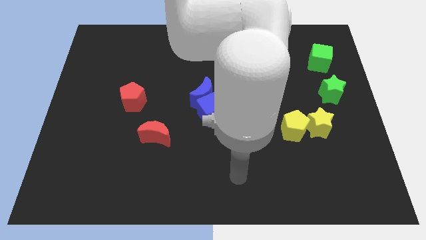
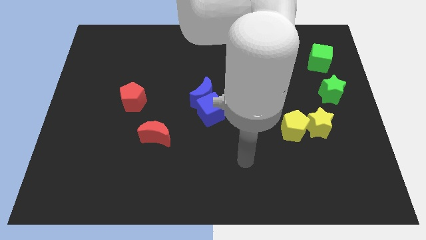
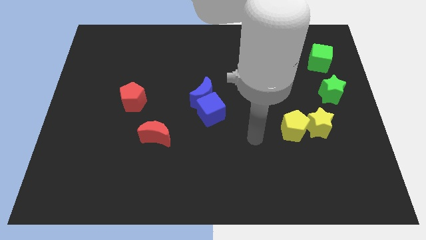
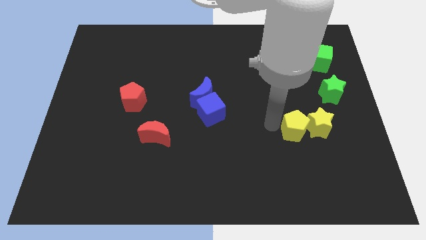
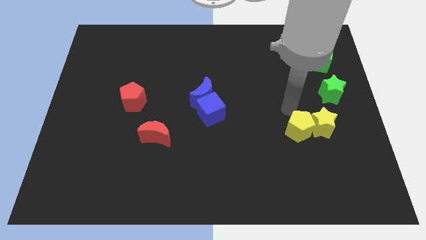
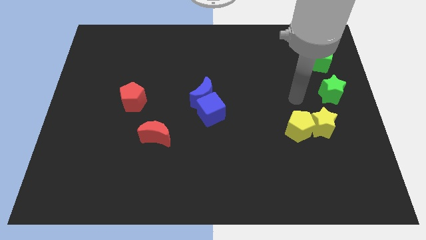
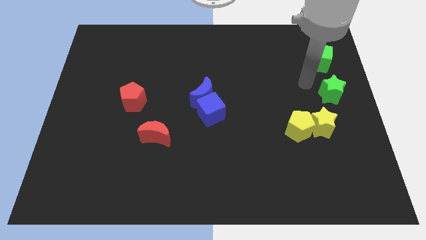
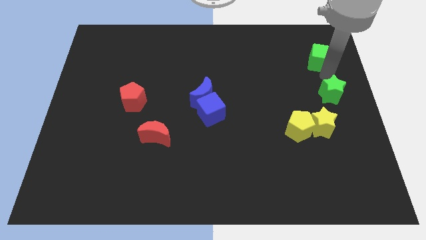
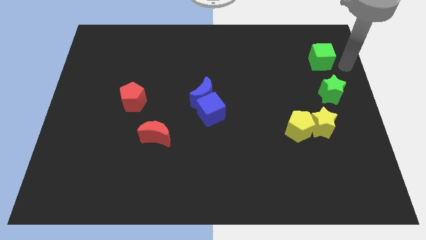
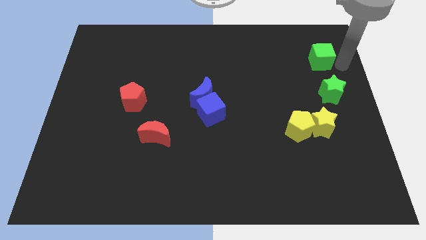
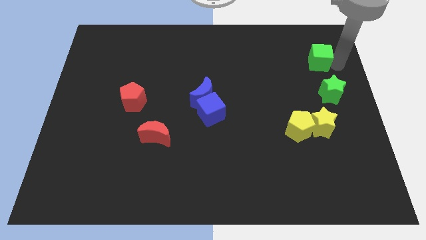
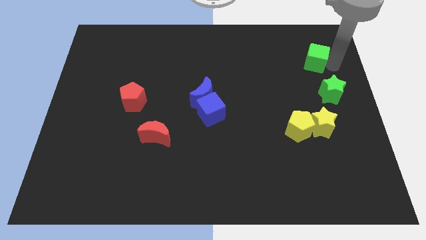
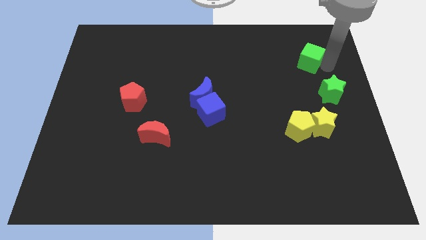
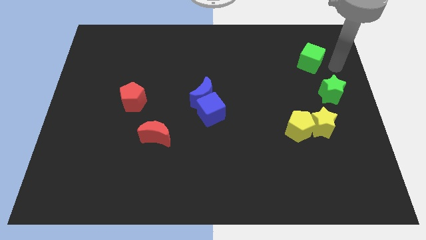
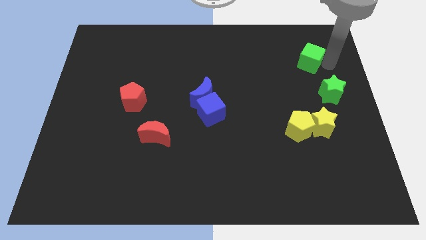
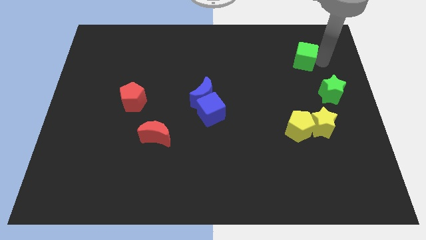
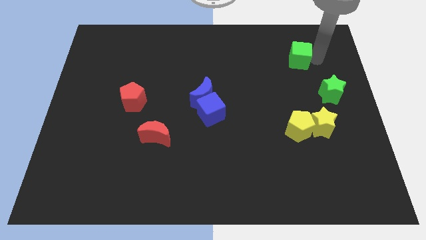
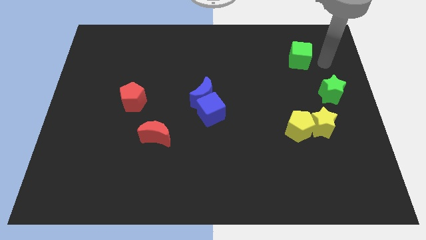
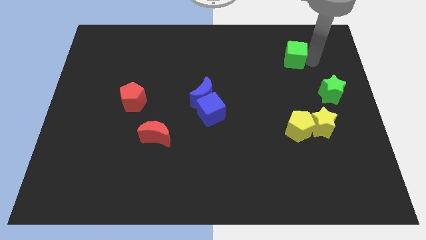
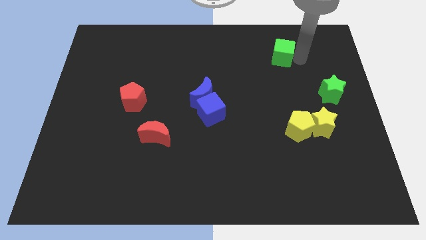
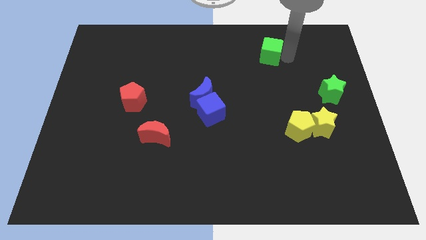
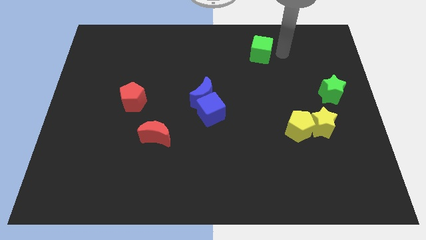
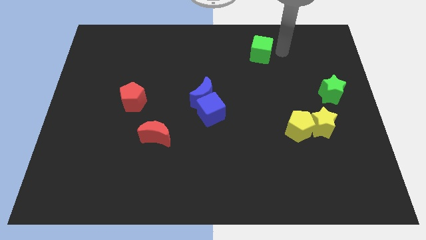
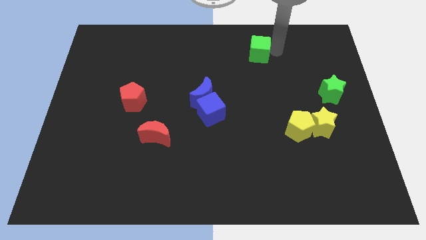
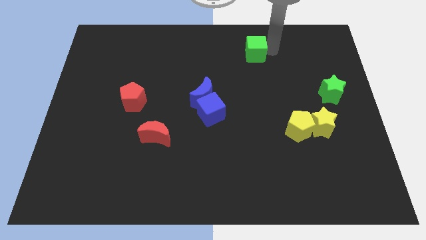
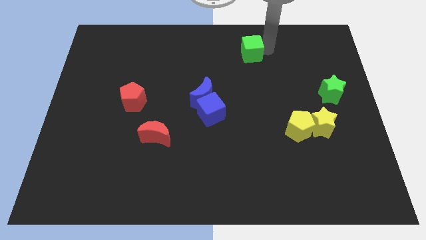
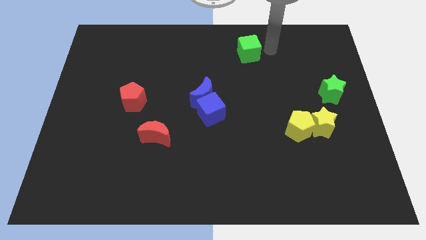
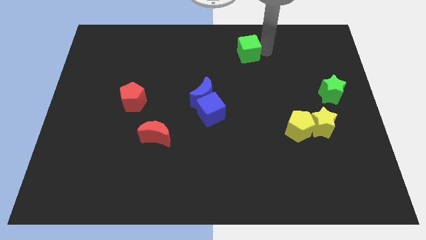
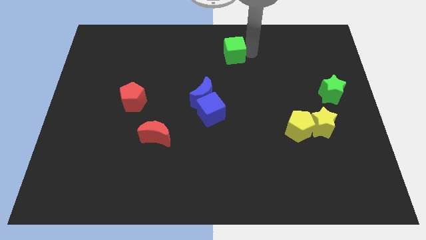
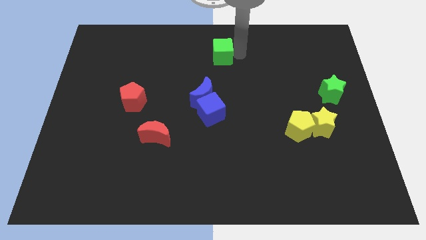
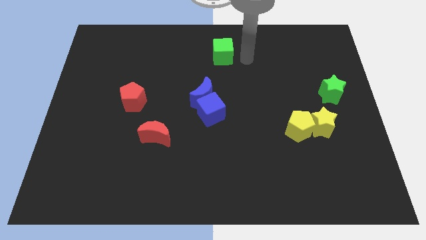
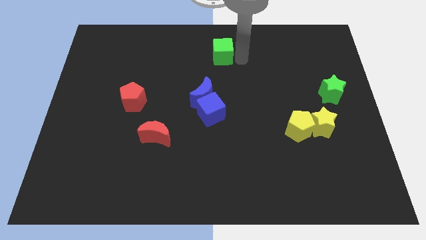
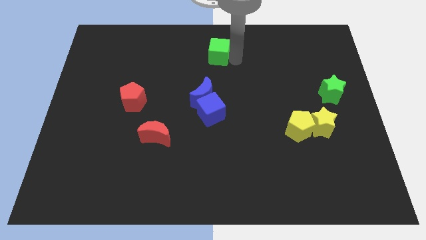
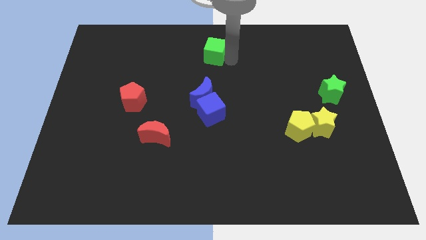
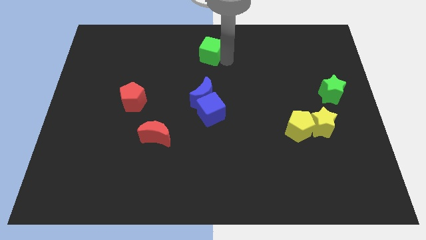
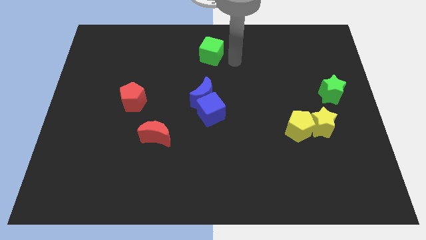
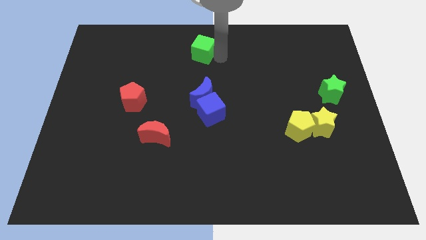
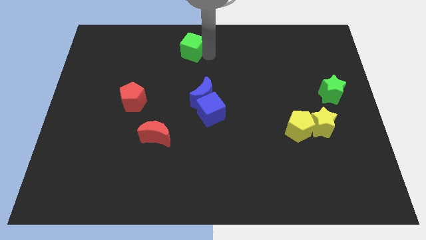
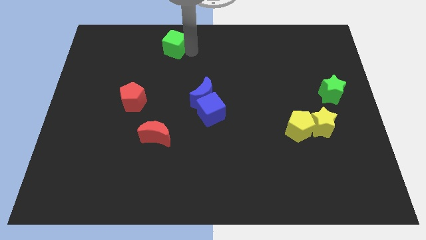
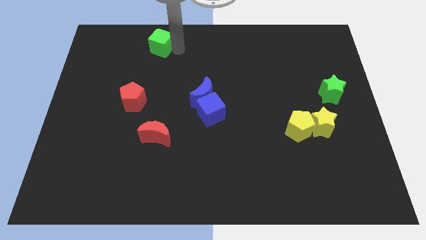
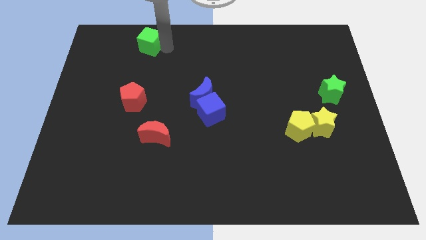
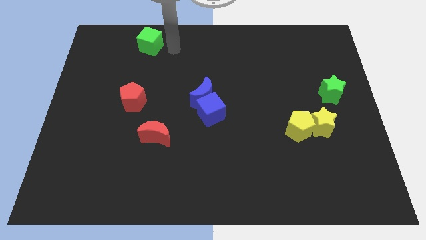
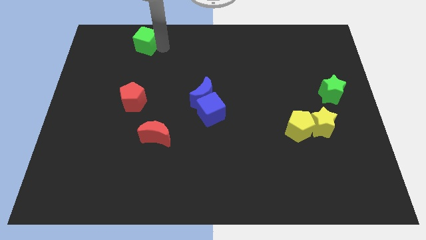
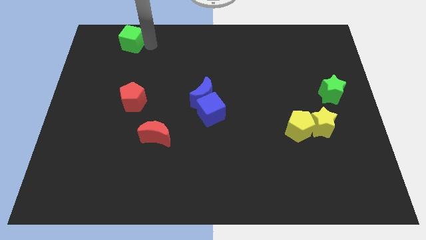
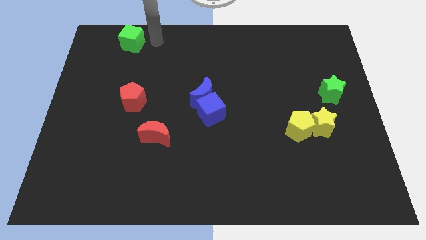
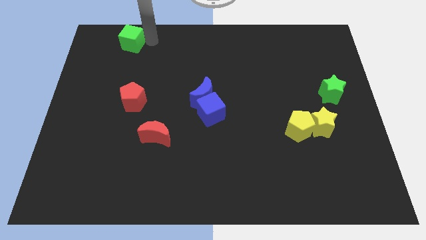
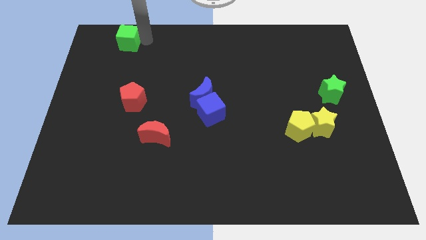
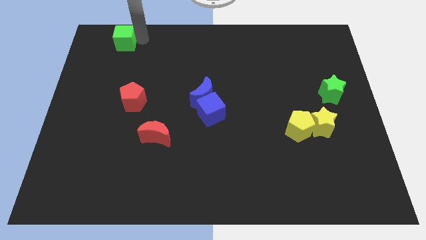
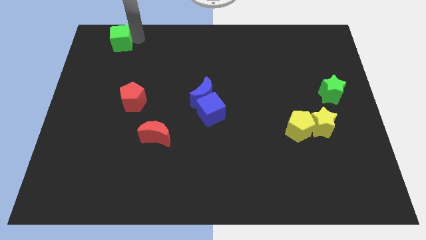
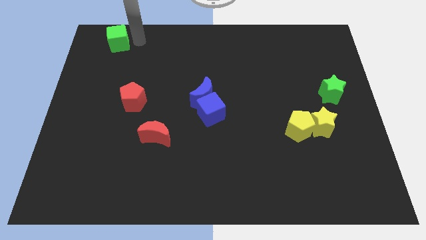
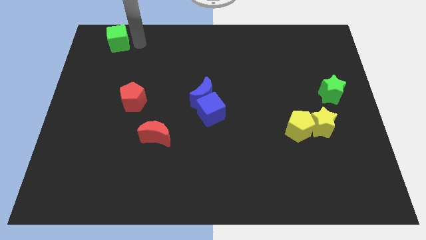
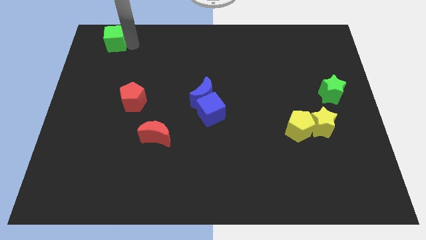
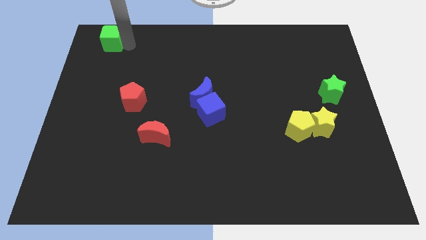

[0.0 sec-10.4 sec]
move the green cube to the top left corner

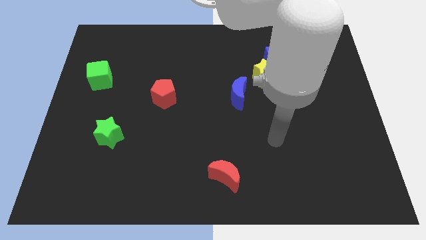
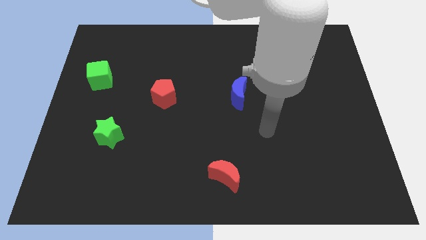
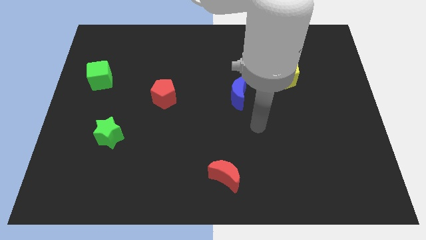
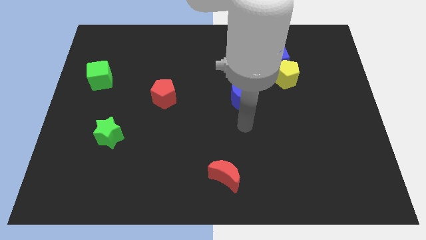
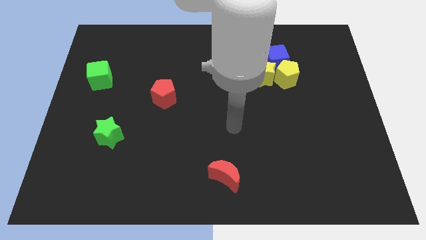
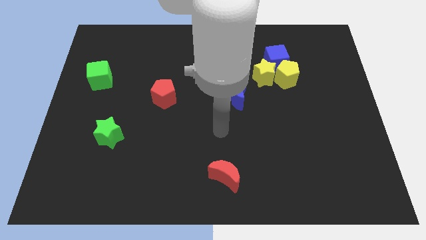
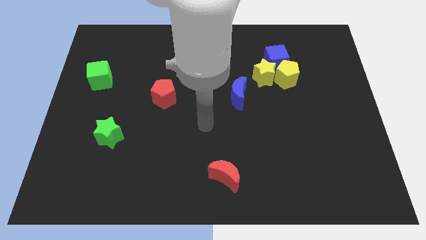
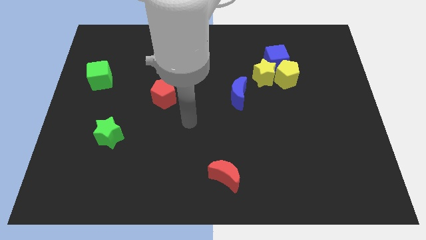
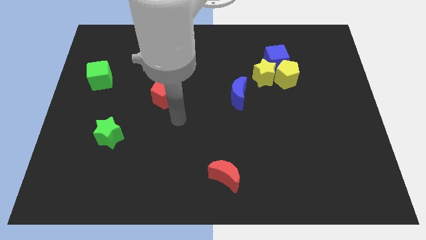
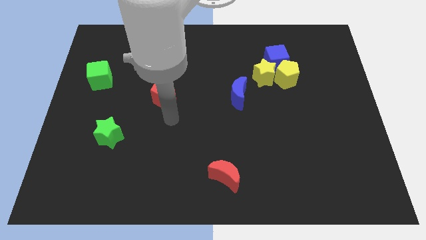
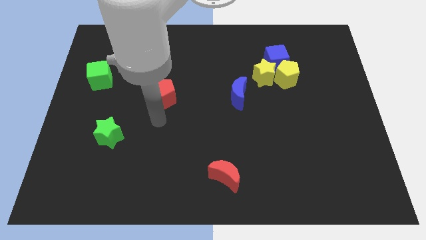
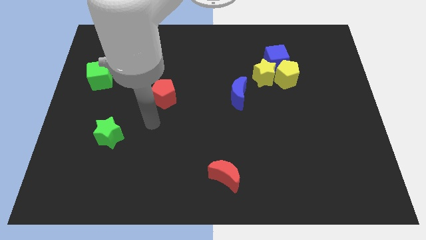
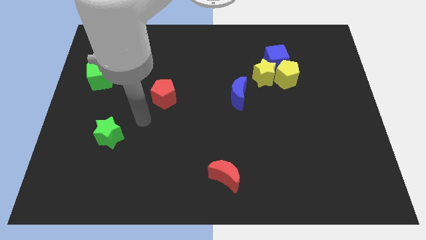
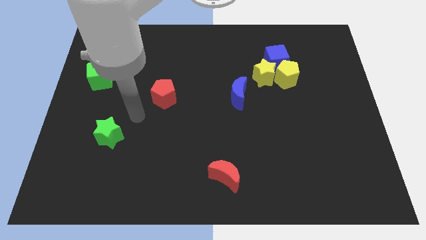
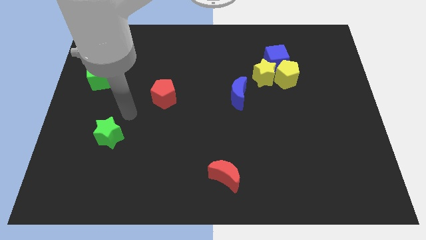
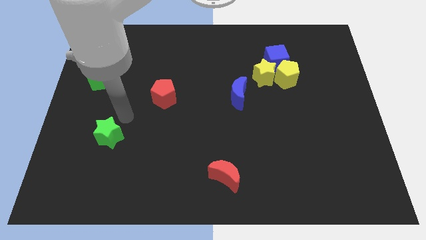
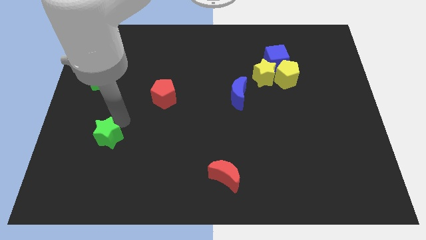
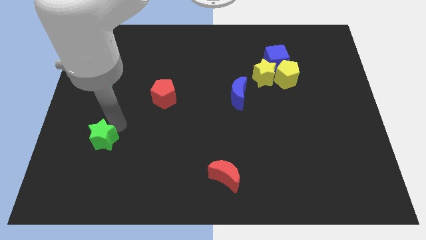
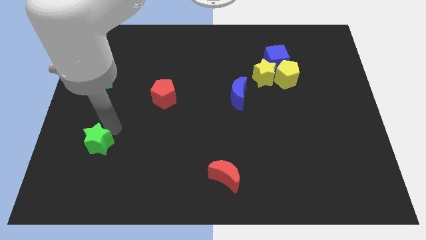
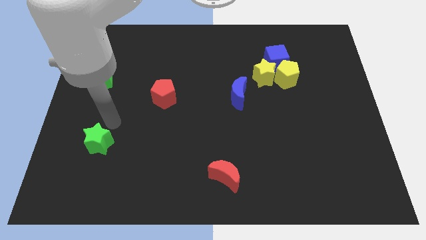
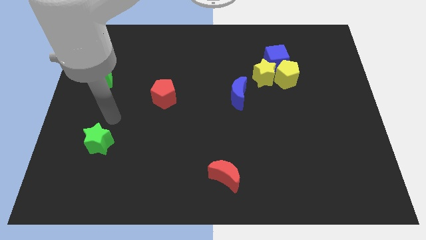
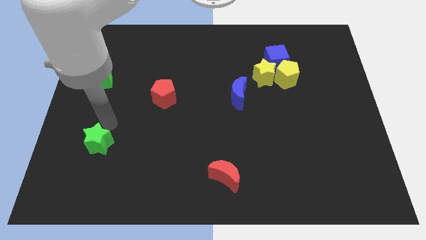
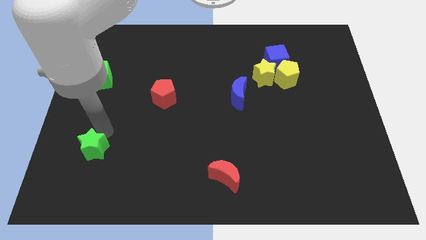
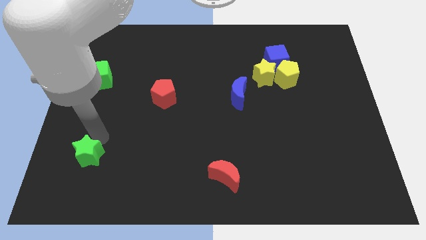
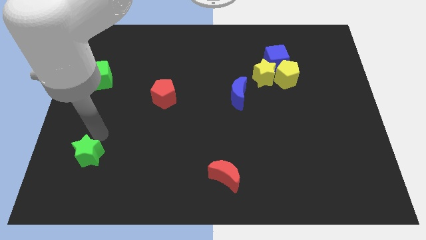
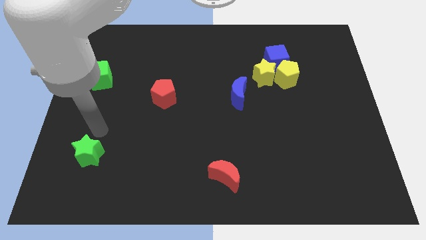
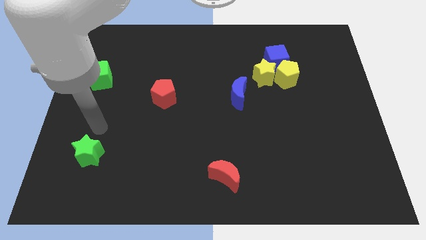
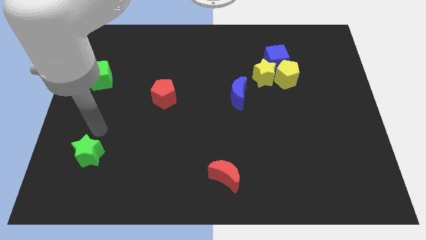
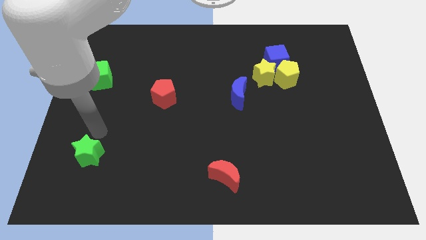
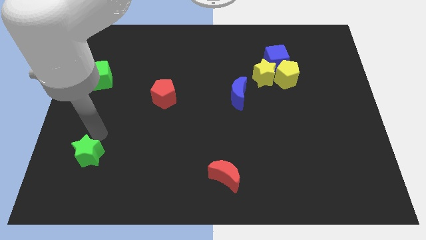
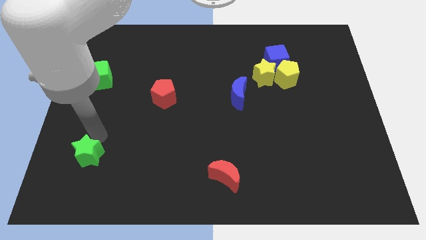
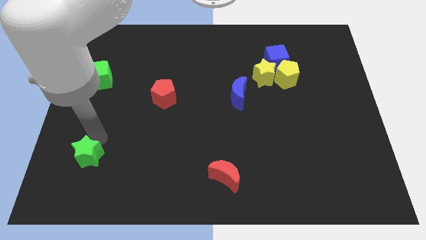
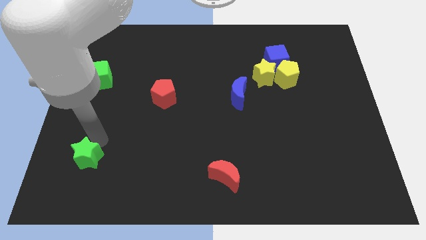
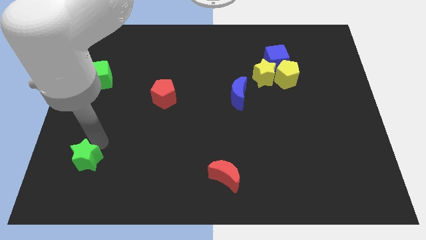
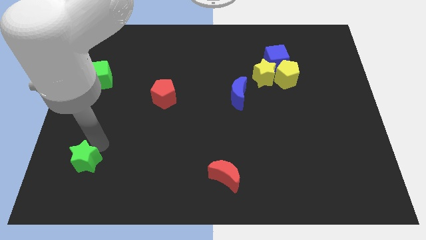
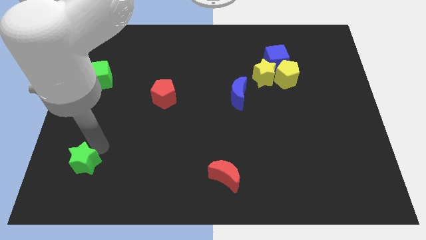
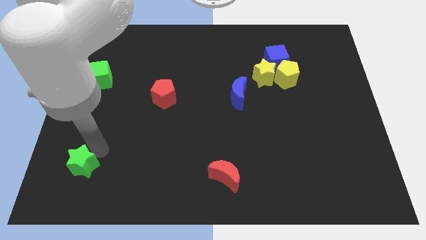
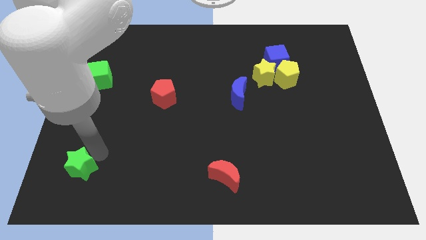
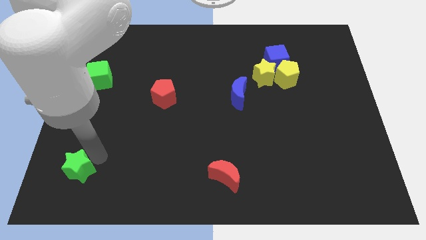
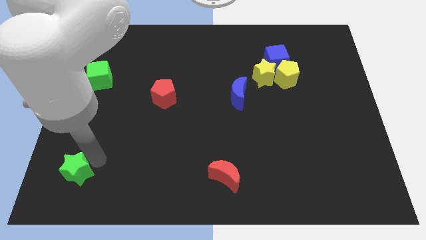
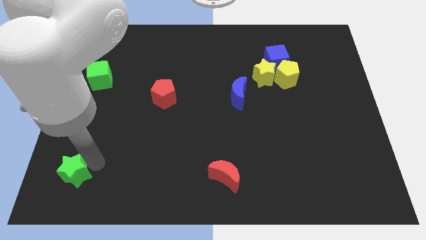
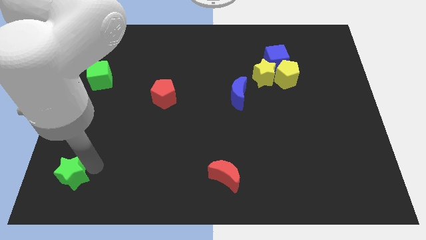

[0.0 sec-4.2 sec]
put the green star to the bottom left
